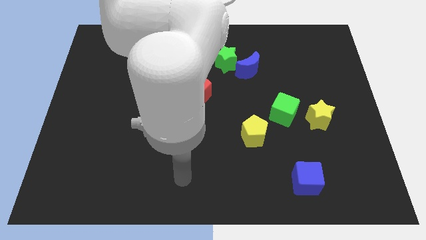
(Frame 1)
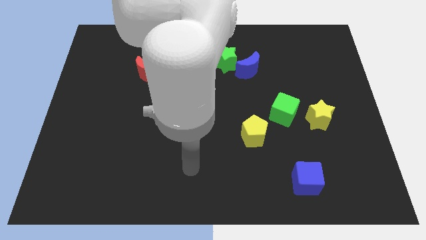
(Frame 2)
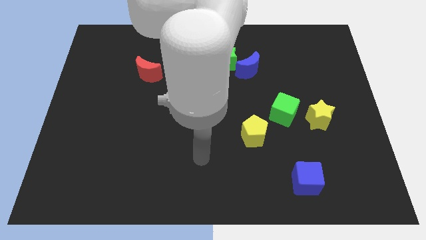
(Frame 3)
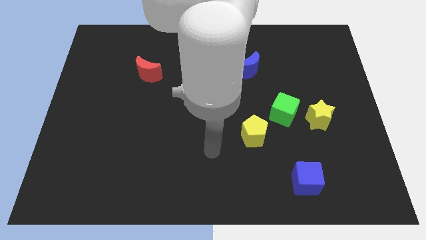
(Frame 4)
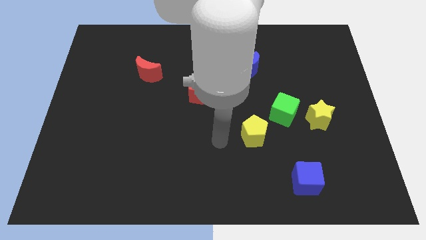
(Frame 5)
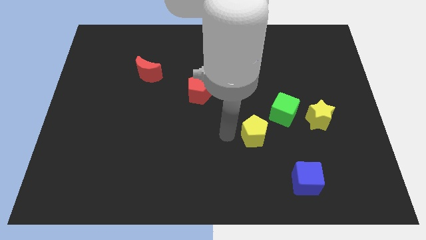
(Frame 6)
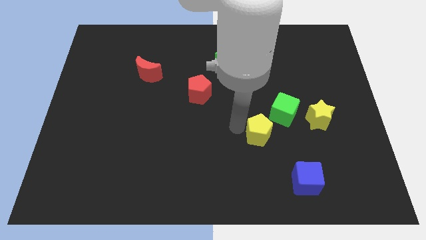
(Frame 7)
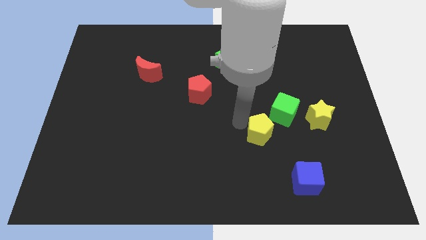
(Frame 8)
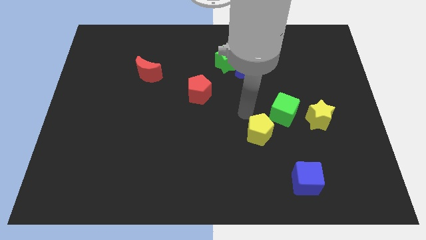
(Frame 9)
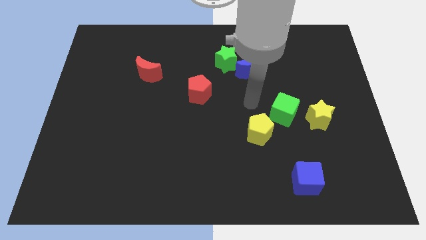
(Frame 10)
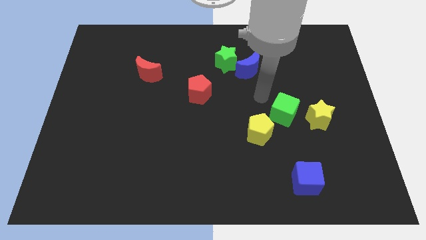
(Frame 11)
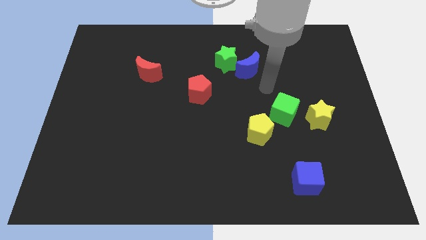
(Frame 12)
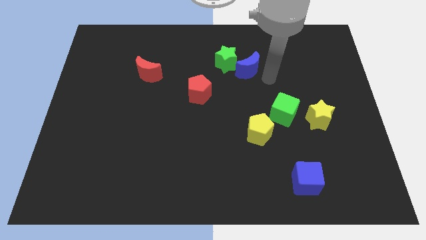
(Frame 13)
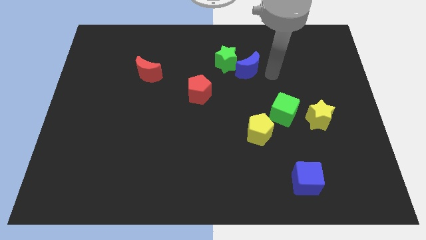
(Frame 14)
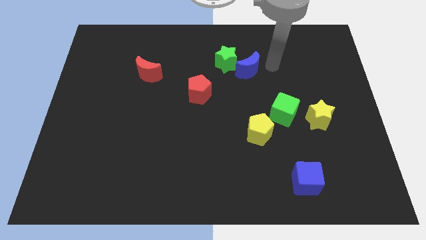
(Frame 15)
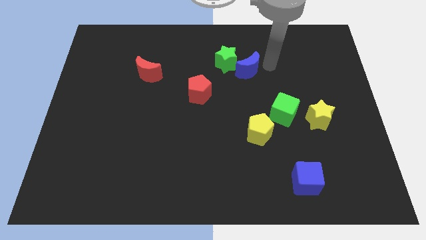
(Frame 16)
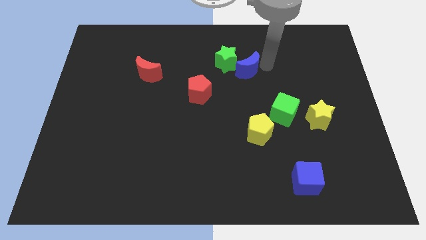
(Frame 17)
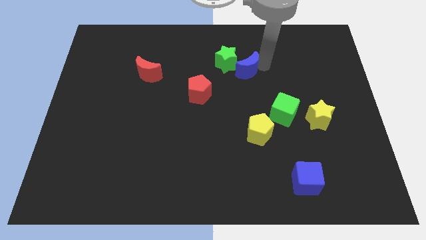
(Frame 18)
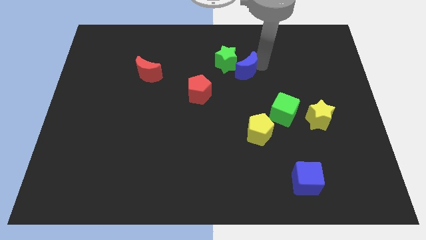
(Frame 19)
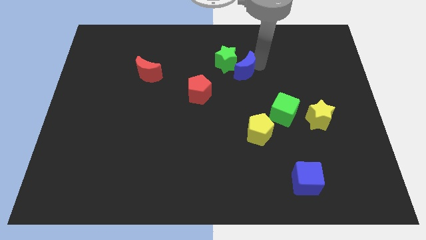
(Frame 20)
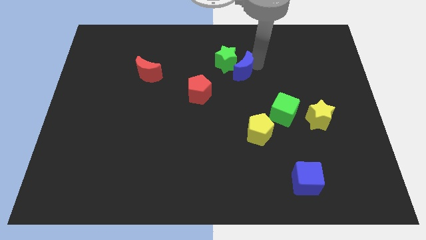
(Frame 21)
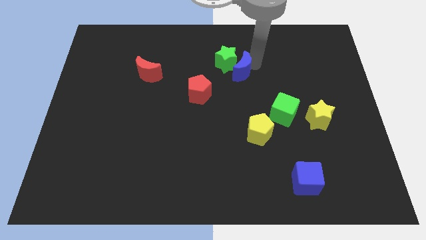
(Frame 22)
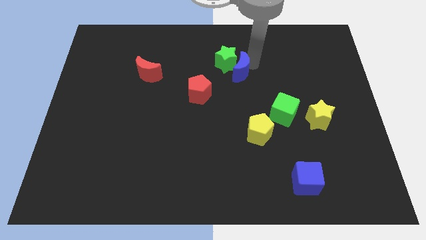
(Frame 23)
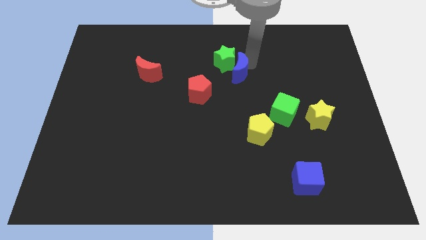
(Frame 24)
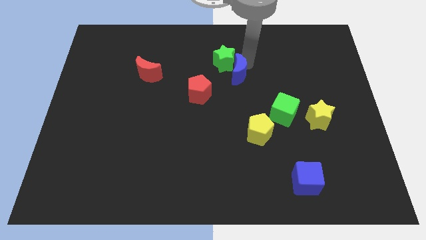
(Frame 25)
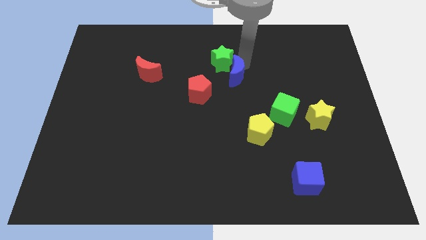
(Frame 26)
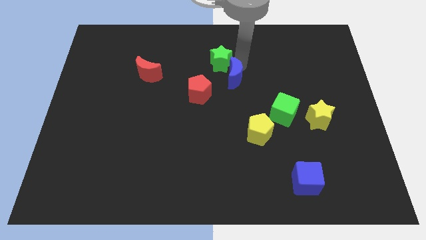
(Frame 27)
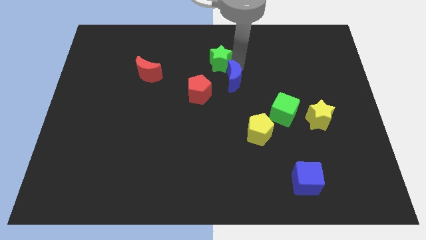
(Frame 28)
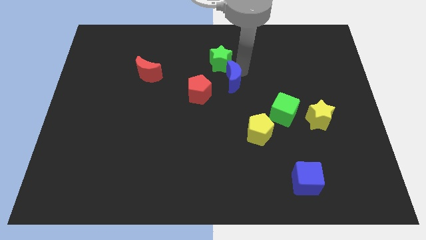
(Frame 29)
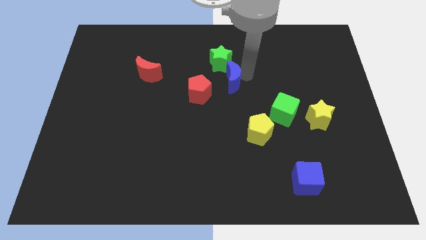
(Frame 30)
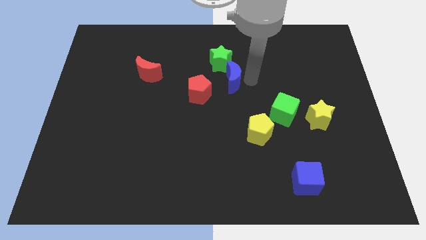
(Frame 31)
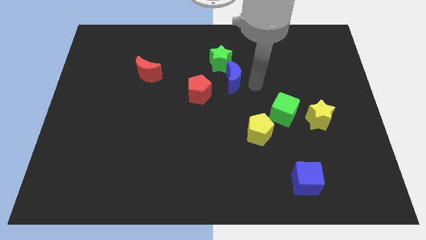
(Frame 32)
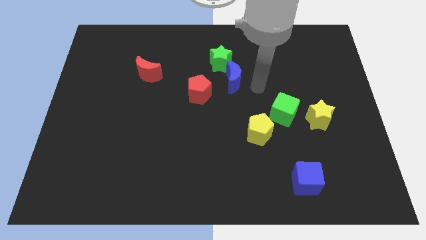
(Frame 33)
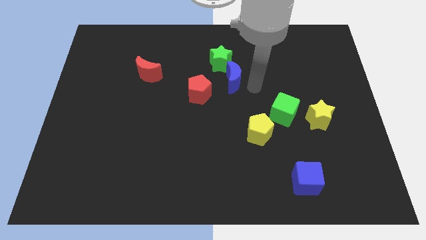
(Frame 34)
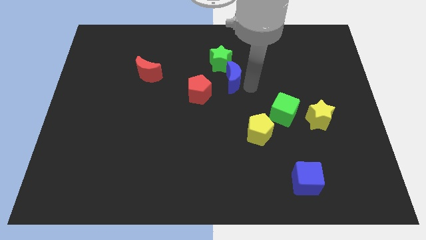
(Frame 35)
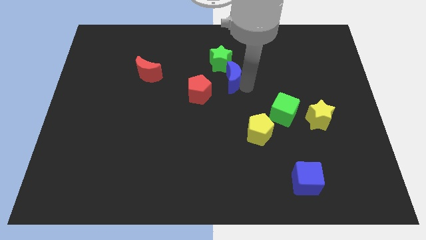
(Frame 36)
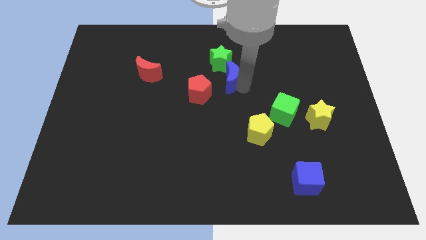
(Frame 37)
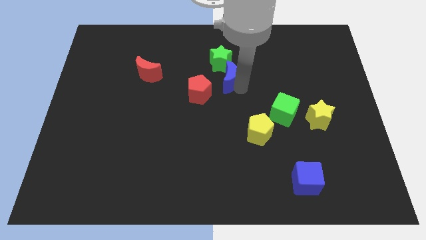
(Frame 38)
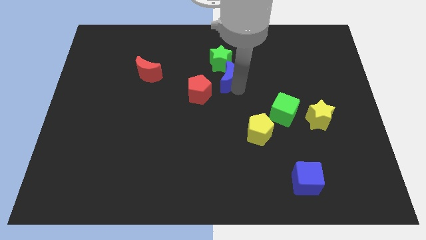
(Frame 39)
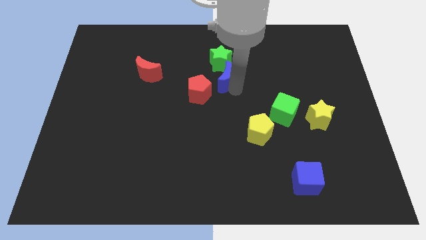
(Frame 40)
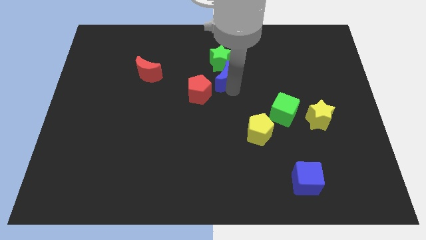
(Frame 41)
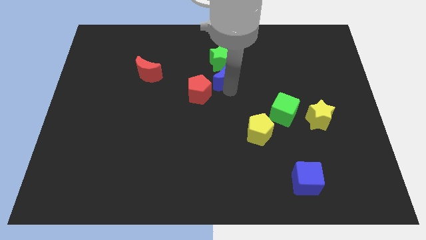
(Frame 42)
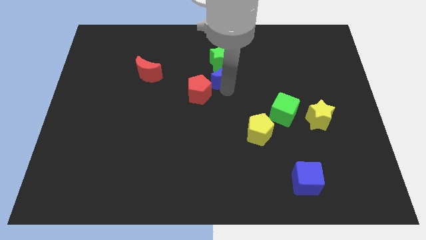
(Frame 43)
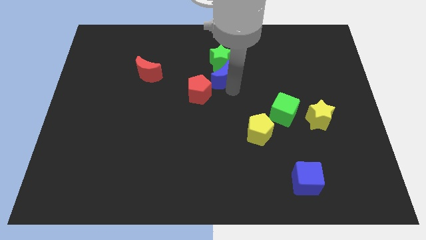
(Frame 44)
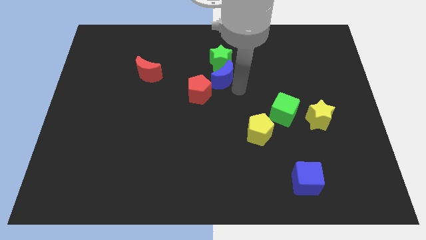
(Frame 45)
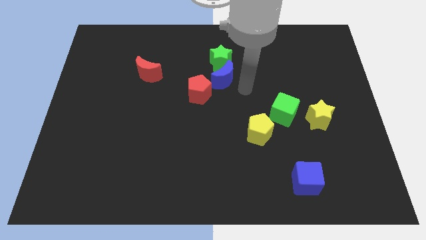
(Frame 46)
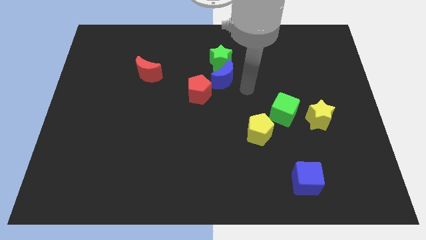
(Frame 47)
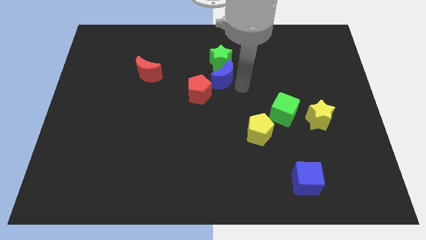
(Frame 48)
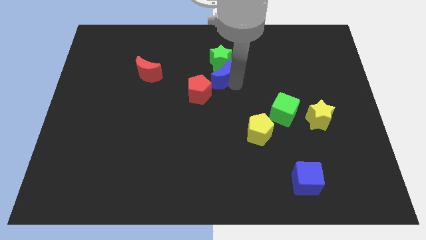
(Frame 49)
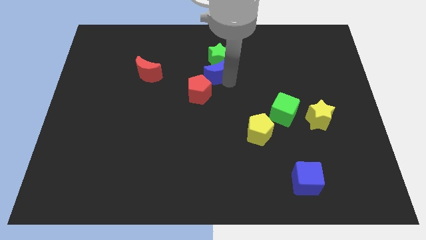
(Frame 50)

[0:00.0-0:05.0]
move the blue moon a little left

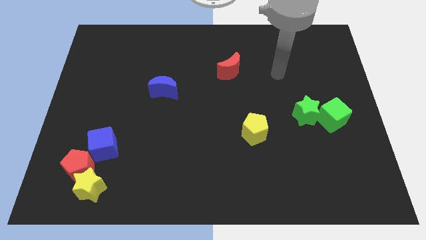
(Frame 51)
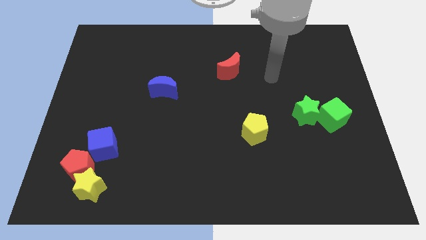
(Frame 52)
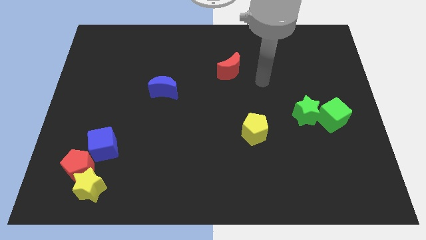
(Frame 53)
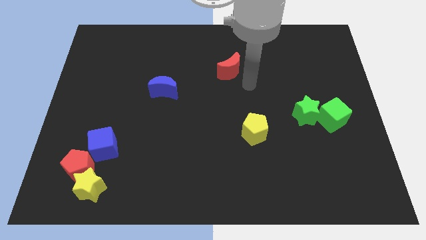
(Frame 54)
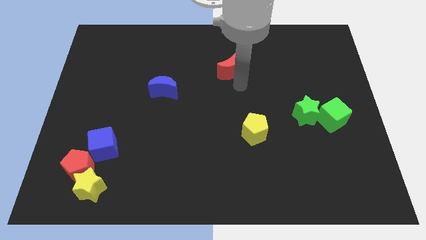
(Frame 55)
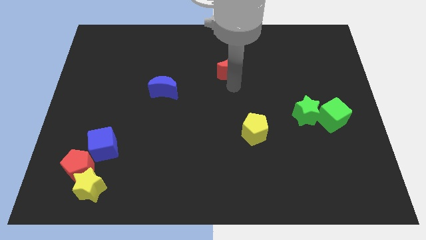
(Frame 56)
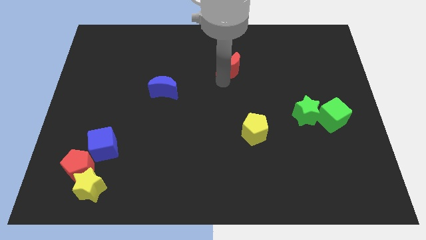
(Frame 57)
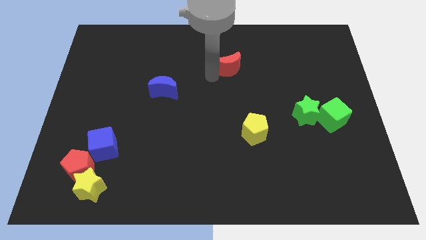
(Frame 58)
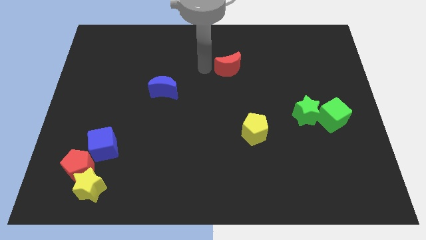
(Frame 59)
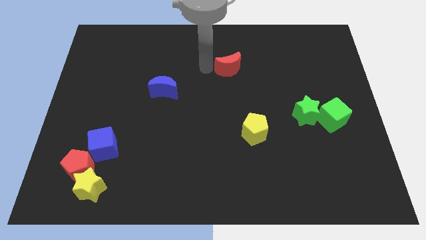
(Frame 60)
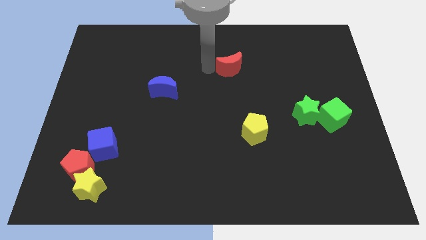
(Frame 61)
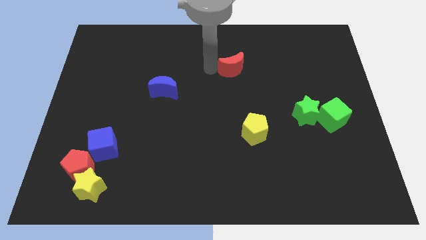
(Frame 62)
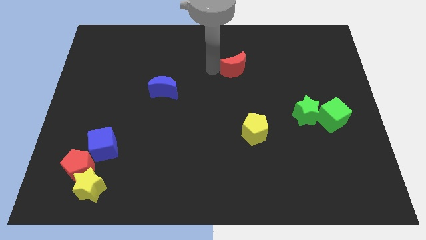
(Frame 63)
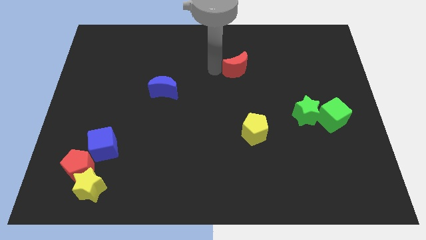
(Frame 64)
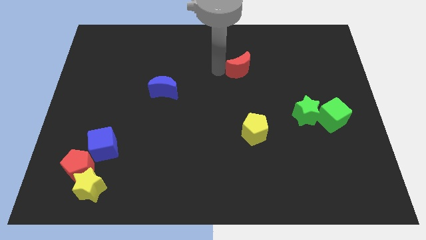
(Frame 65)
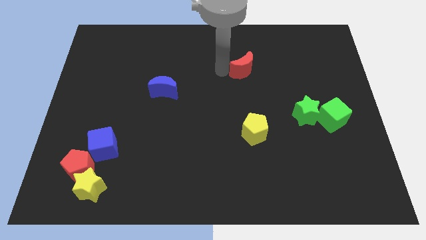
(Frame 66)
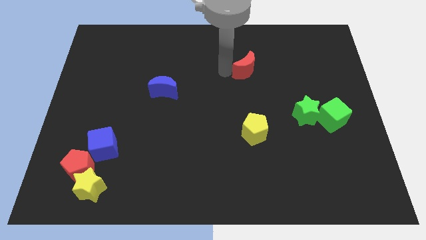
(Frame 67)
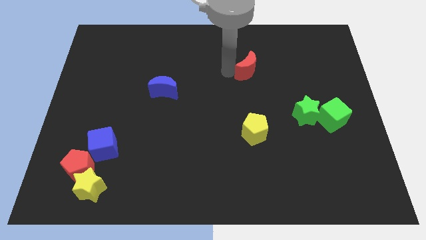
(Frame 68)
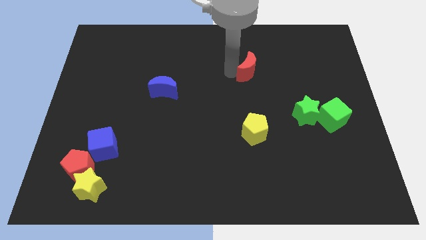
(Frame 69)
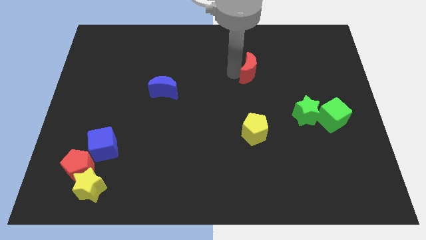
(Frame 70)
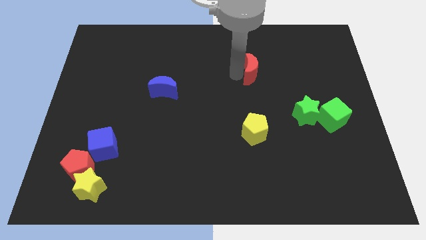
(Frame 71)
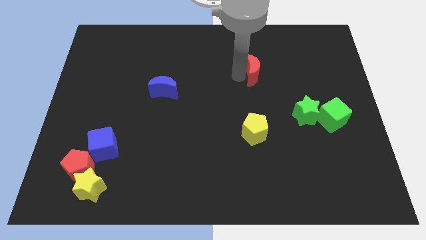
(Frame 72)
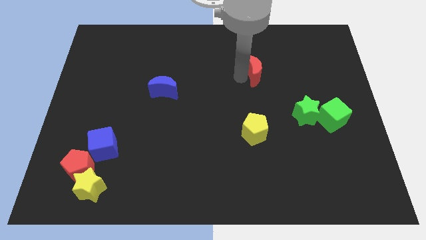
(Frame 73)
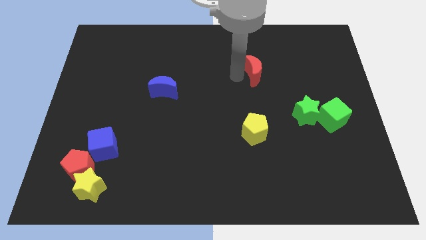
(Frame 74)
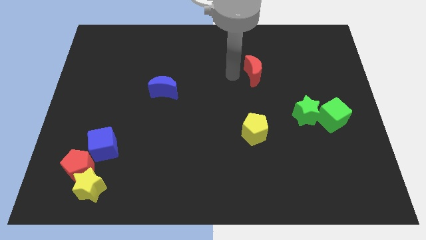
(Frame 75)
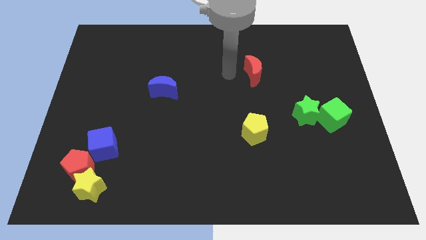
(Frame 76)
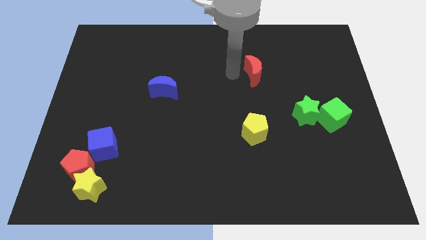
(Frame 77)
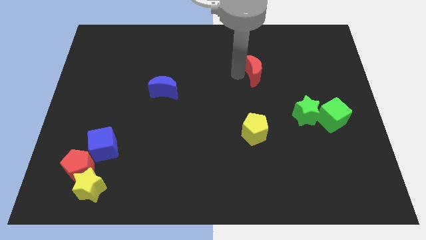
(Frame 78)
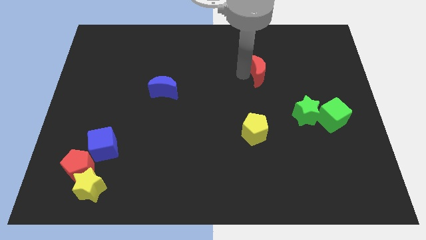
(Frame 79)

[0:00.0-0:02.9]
move the red moon to the right a bit
